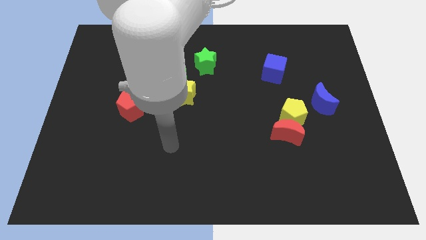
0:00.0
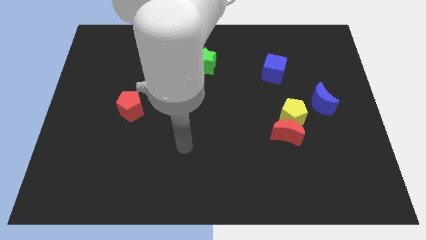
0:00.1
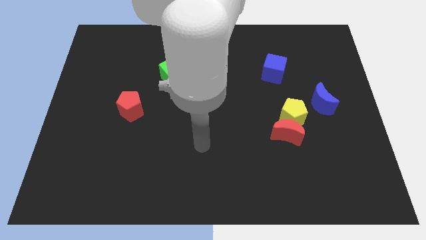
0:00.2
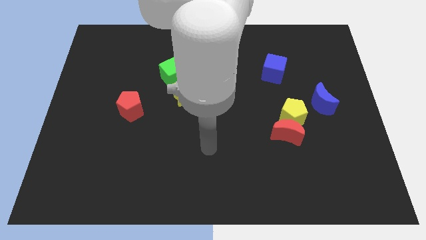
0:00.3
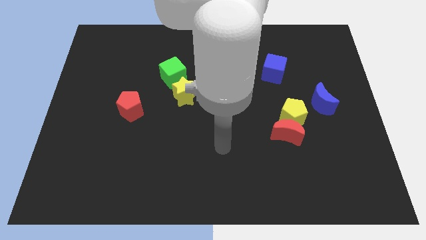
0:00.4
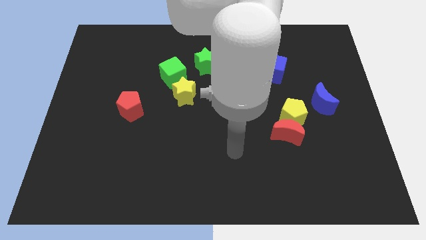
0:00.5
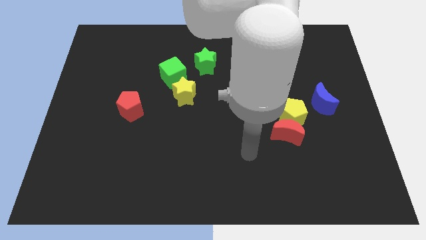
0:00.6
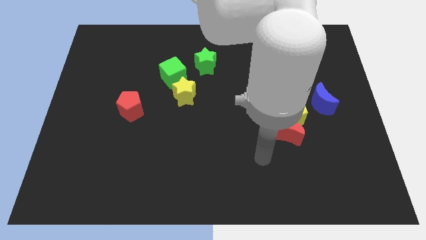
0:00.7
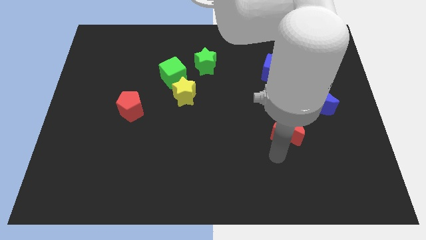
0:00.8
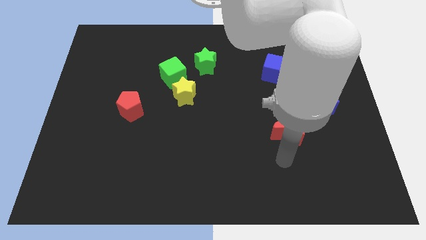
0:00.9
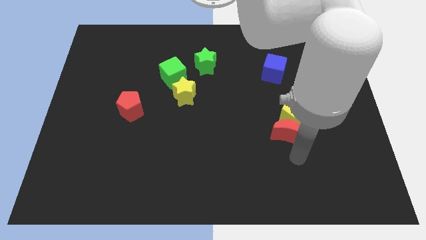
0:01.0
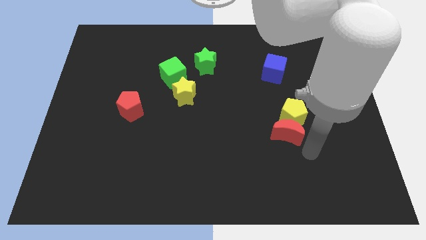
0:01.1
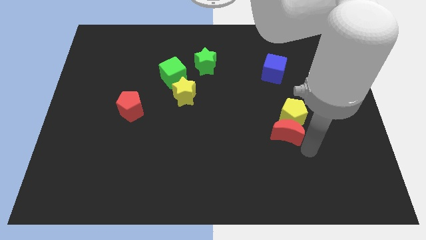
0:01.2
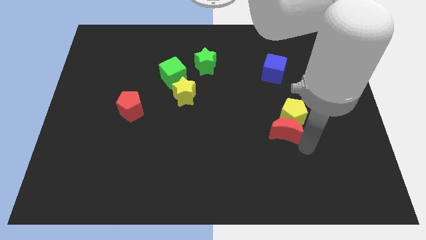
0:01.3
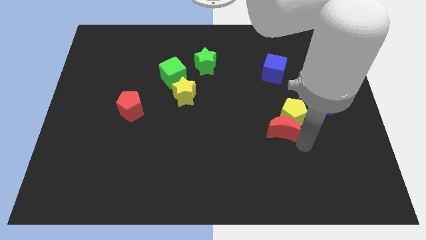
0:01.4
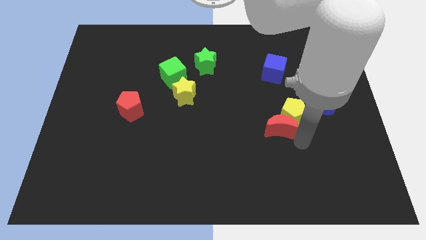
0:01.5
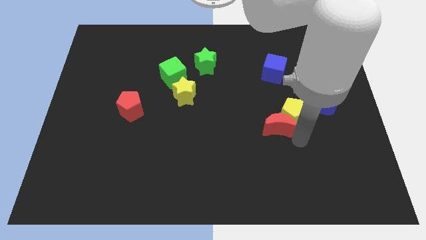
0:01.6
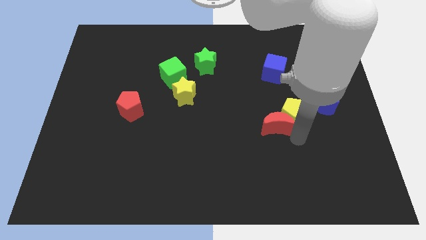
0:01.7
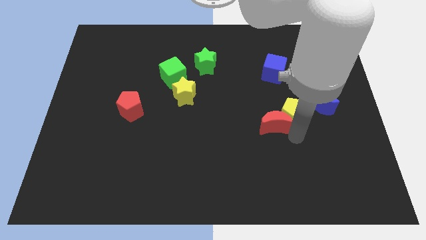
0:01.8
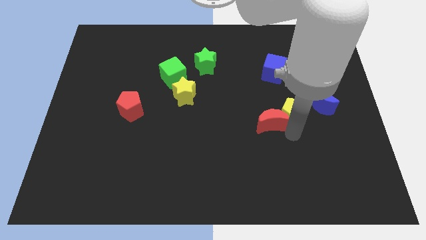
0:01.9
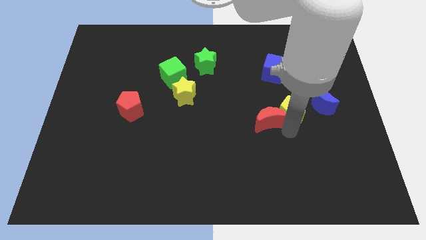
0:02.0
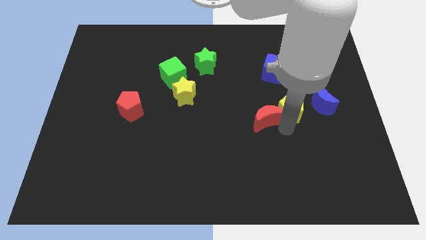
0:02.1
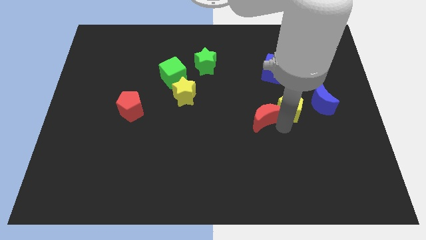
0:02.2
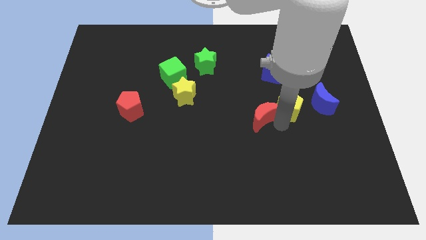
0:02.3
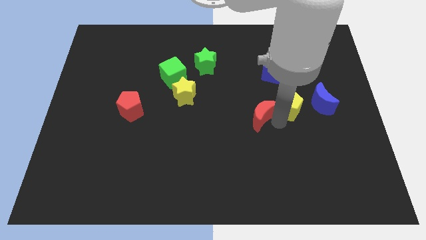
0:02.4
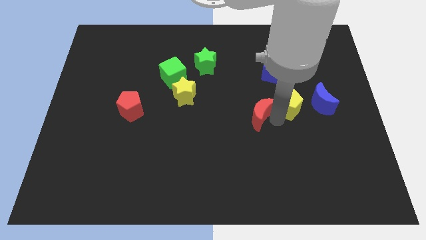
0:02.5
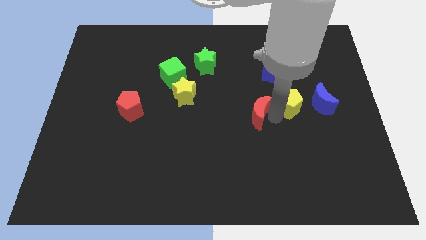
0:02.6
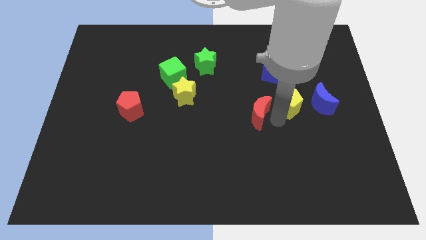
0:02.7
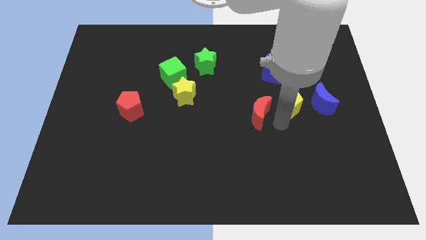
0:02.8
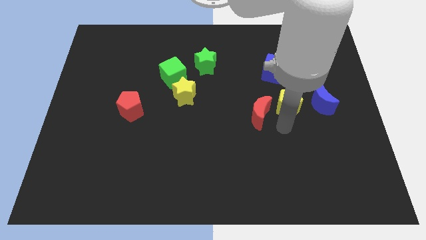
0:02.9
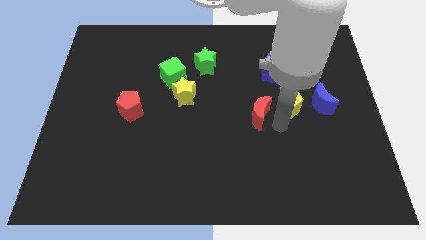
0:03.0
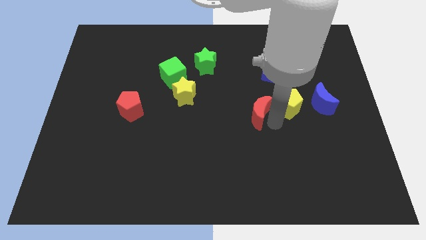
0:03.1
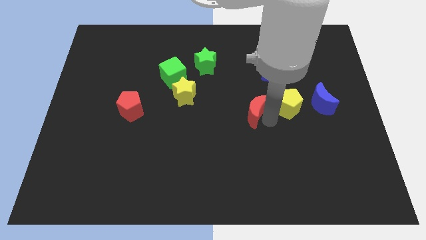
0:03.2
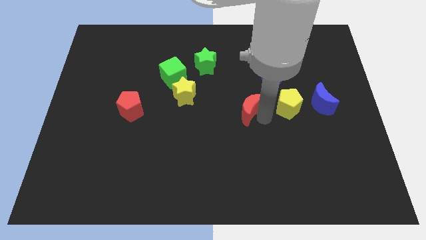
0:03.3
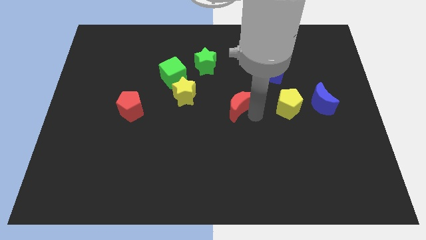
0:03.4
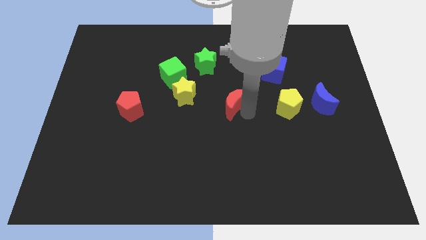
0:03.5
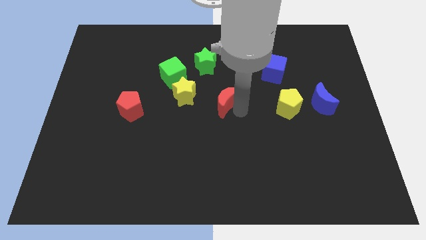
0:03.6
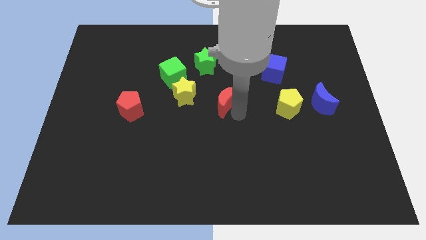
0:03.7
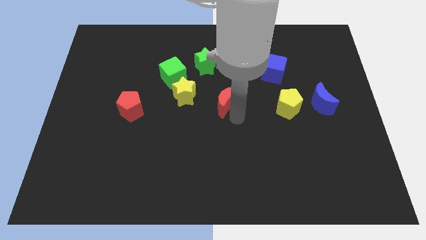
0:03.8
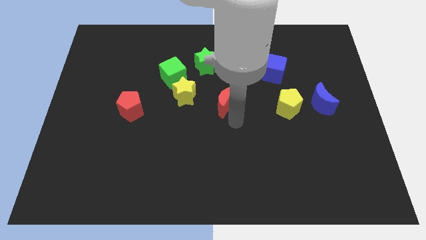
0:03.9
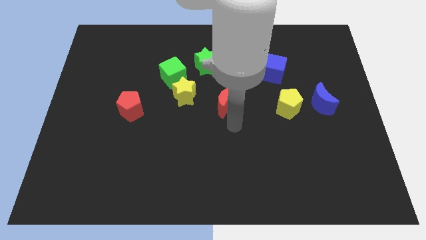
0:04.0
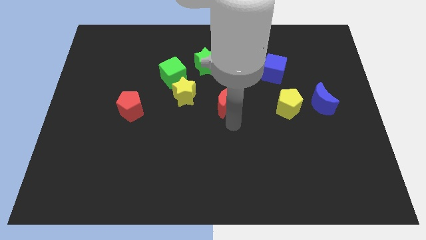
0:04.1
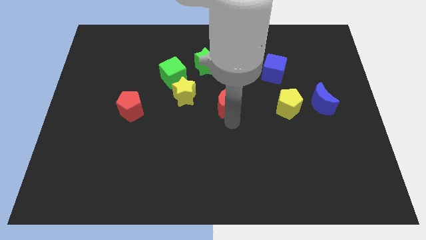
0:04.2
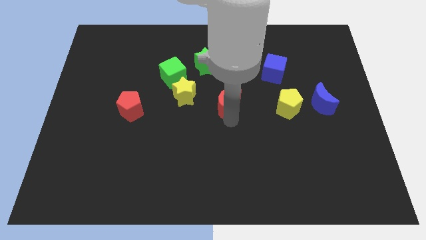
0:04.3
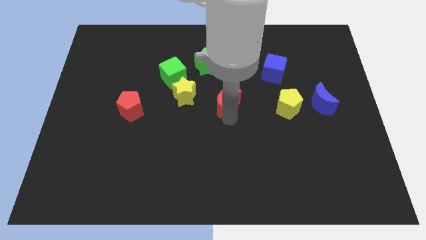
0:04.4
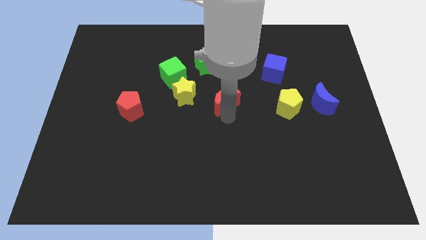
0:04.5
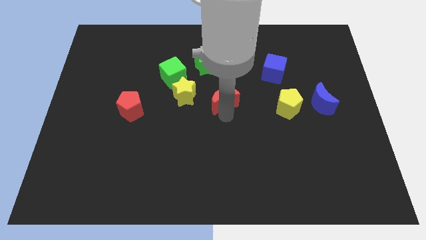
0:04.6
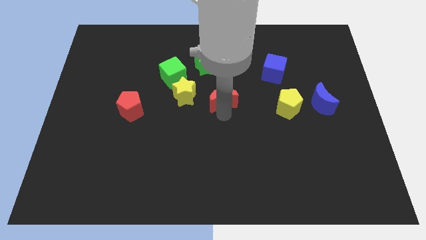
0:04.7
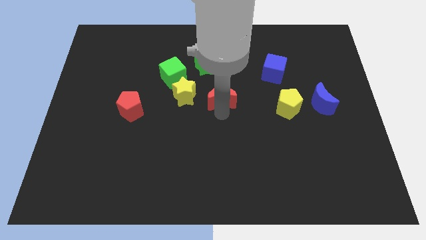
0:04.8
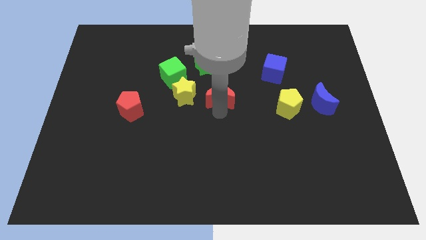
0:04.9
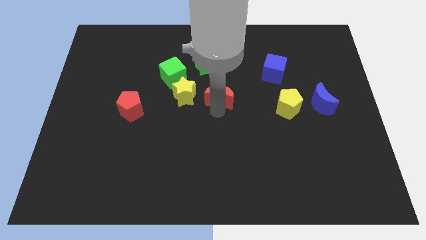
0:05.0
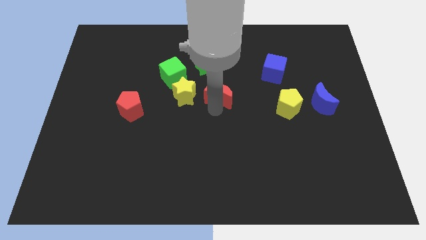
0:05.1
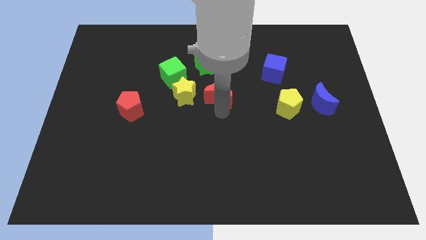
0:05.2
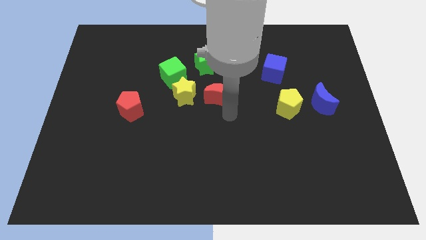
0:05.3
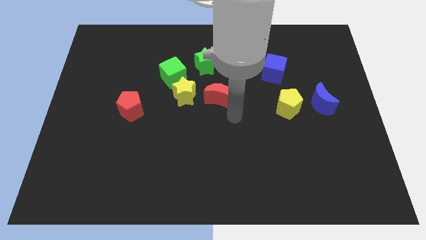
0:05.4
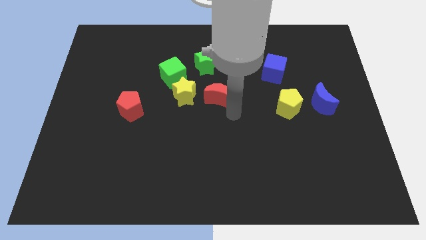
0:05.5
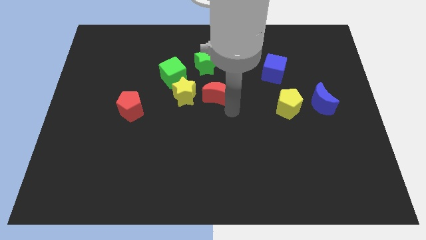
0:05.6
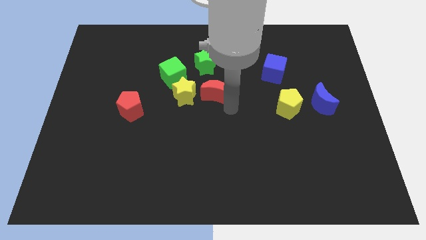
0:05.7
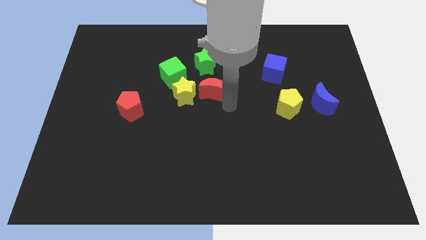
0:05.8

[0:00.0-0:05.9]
move the red moon up and to the left diagonally

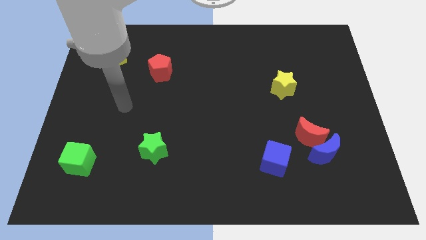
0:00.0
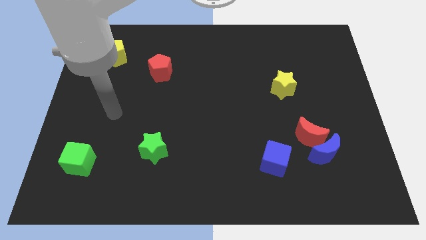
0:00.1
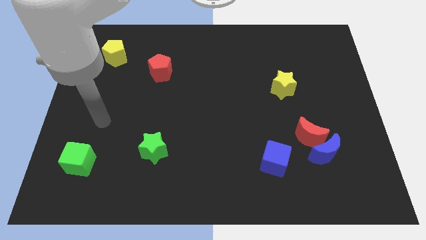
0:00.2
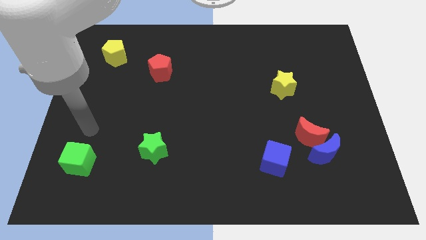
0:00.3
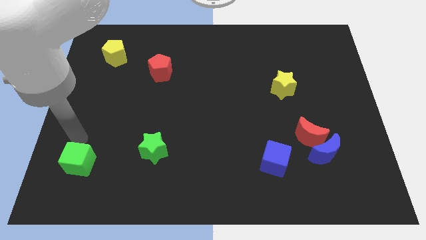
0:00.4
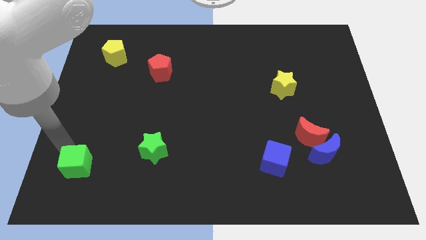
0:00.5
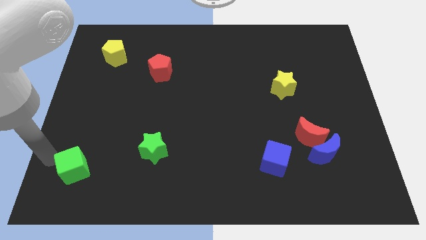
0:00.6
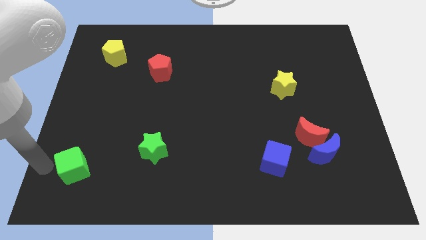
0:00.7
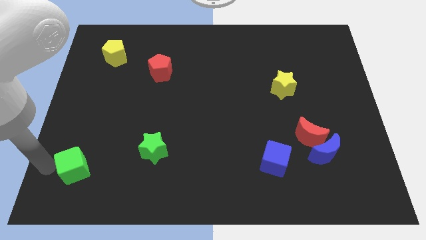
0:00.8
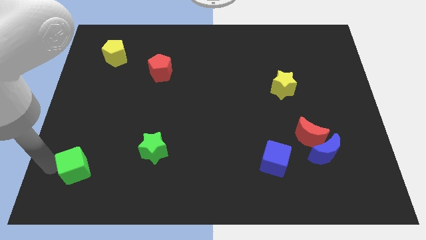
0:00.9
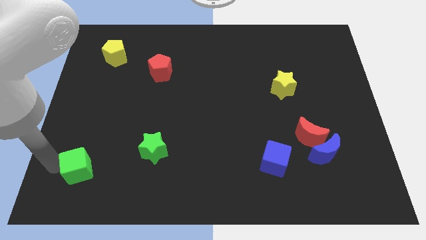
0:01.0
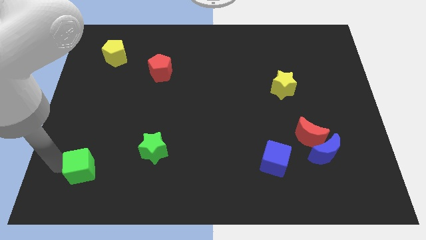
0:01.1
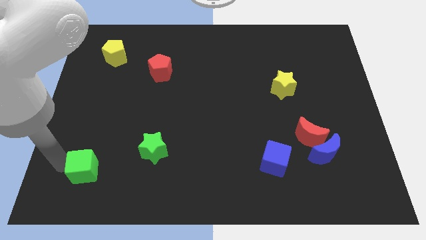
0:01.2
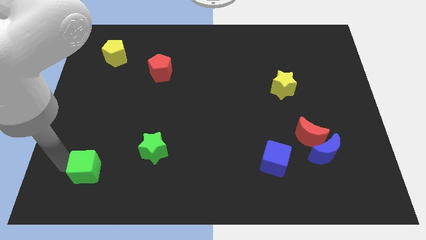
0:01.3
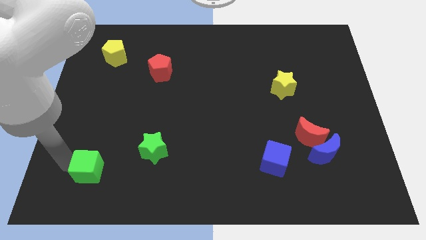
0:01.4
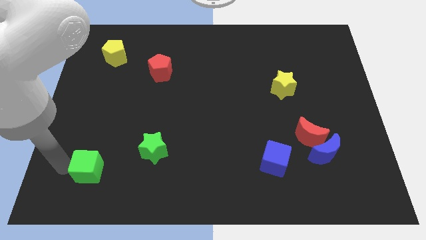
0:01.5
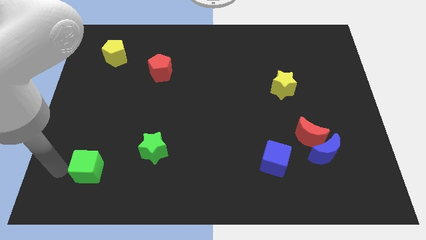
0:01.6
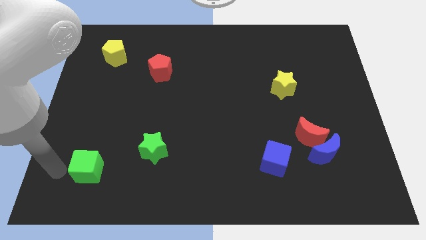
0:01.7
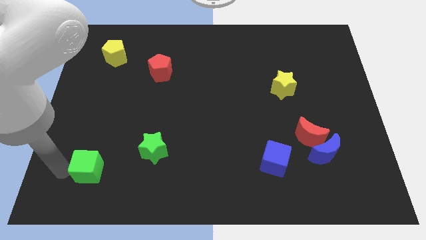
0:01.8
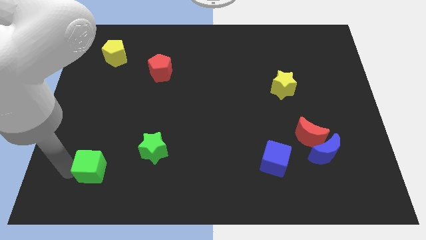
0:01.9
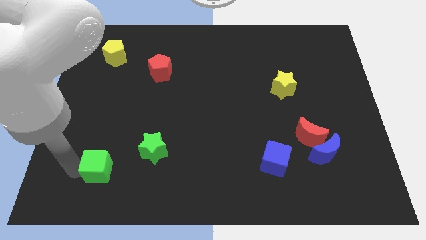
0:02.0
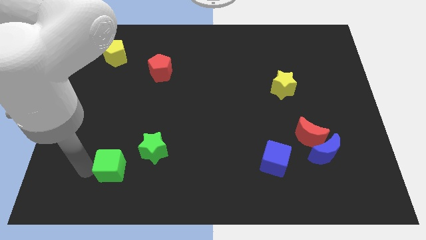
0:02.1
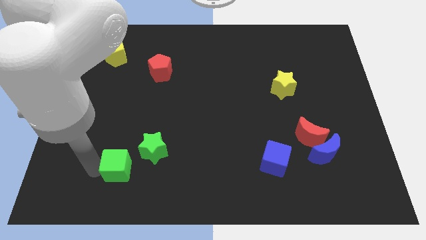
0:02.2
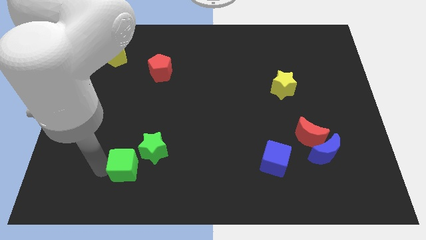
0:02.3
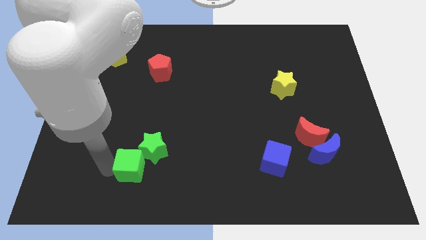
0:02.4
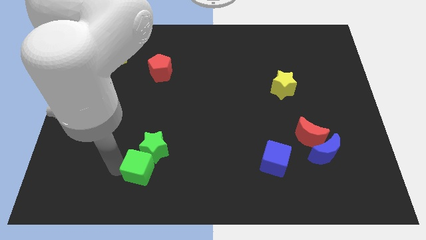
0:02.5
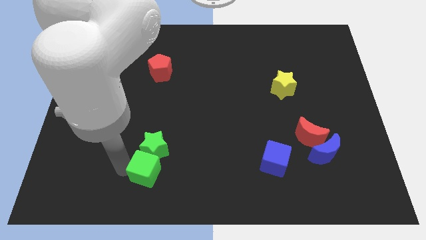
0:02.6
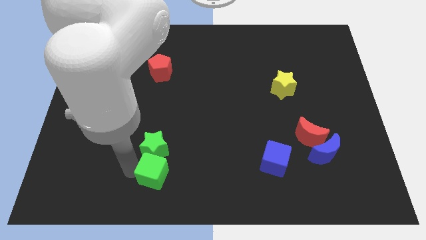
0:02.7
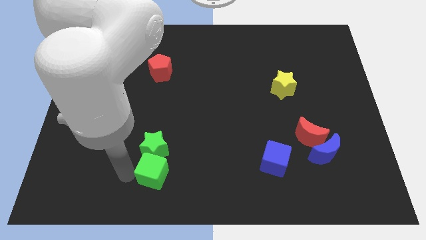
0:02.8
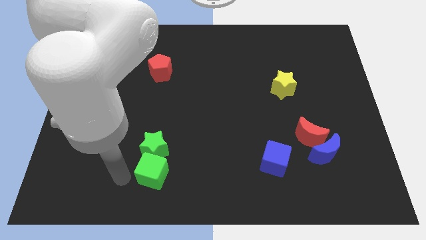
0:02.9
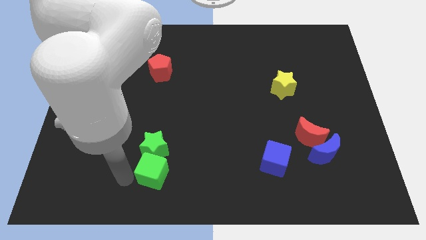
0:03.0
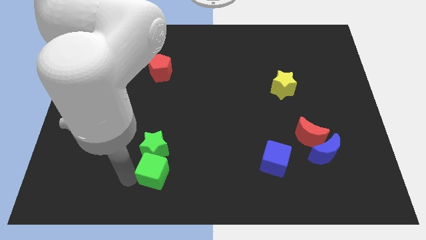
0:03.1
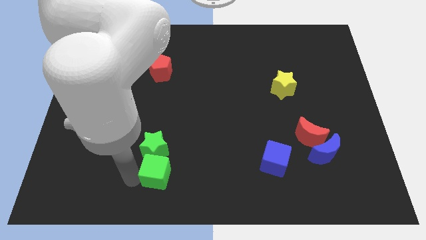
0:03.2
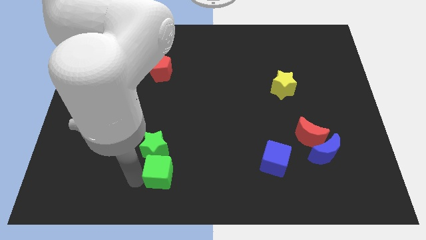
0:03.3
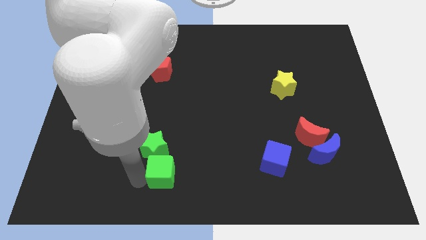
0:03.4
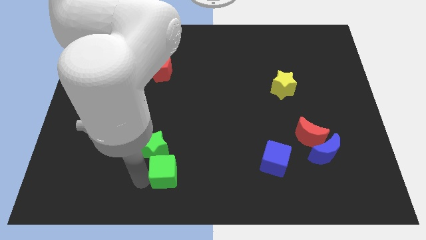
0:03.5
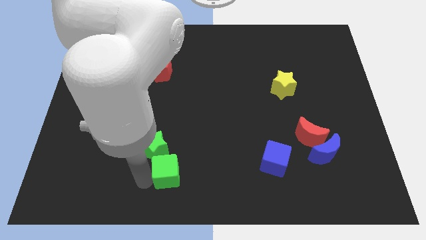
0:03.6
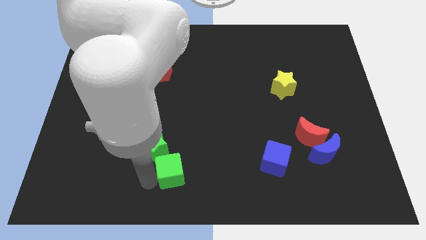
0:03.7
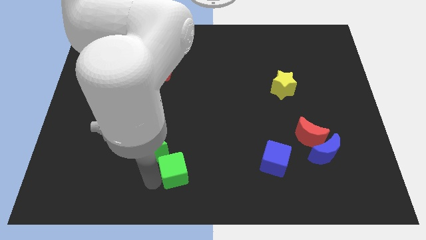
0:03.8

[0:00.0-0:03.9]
push the green cube to the right
